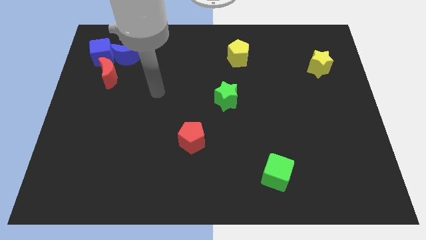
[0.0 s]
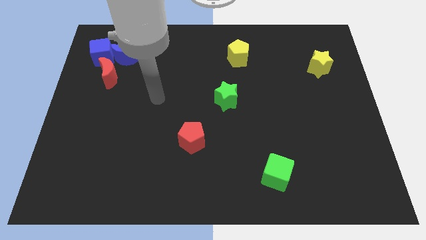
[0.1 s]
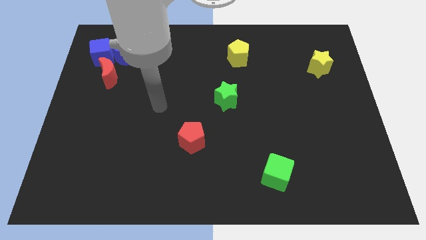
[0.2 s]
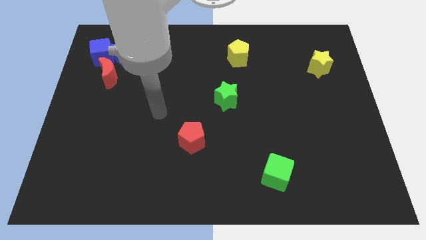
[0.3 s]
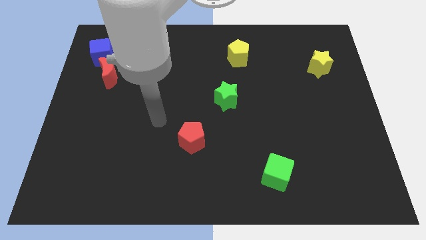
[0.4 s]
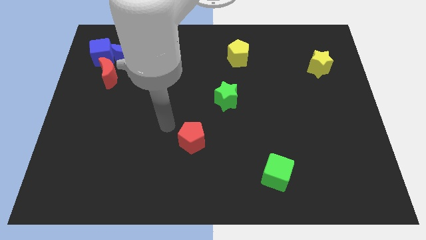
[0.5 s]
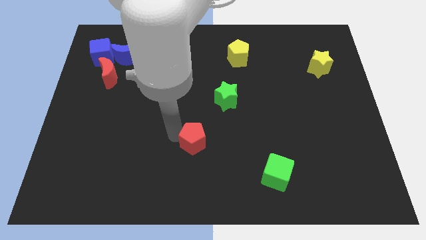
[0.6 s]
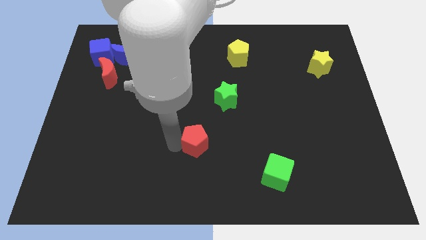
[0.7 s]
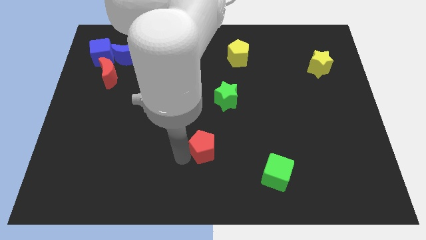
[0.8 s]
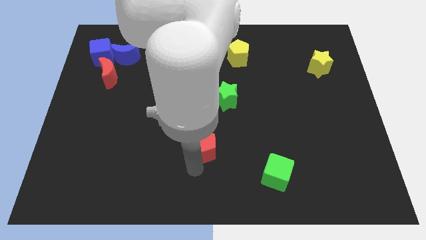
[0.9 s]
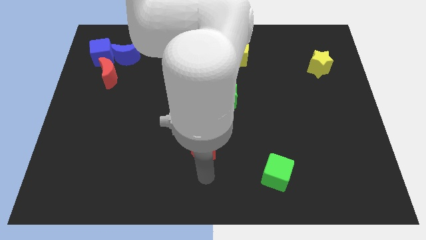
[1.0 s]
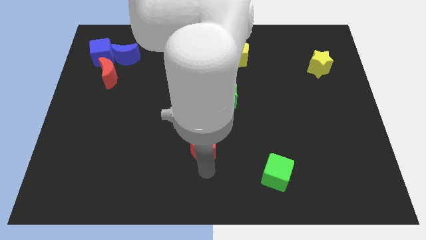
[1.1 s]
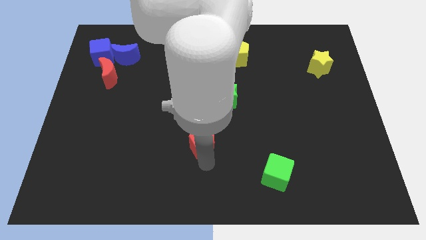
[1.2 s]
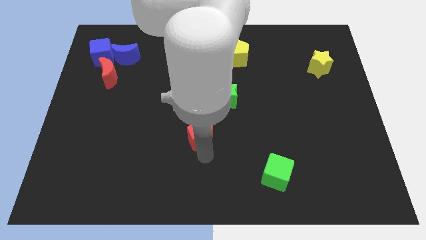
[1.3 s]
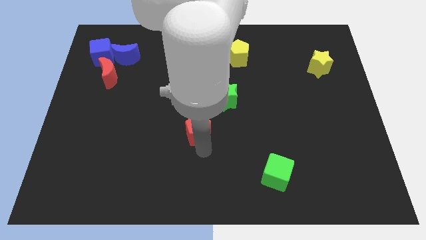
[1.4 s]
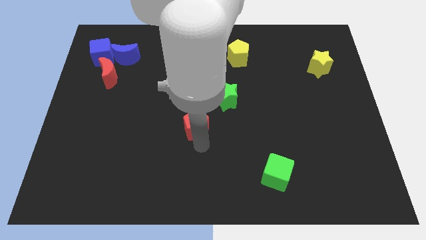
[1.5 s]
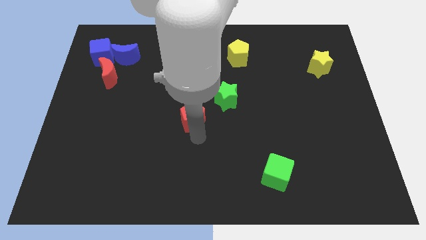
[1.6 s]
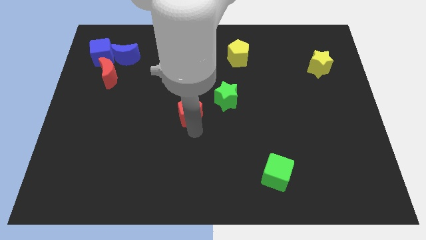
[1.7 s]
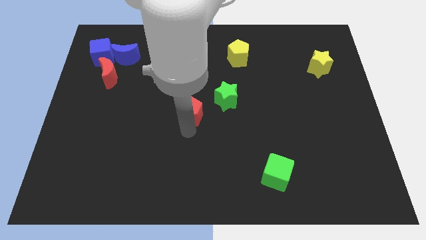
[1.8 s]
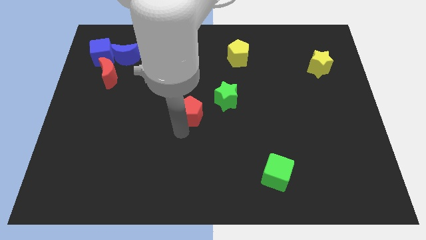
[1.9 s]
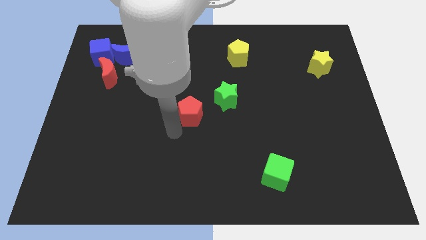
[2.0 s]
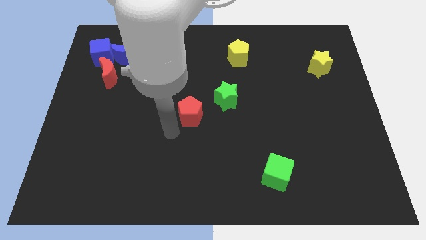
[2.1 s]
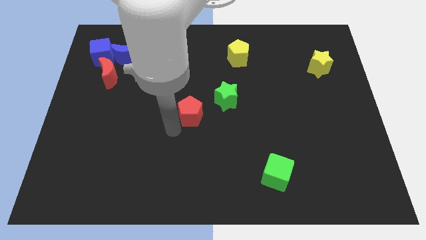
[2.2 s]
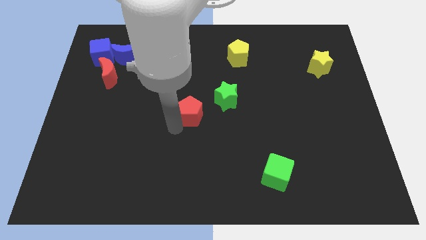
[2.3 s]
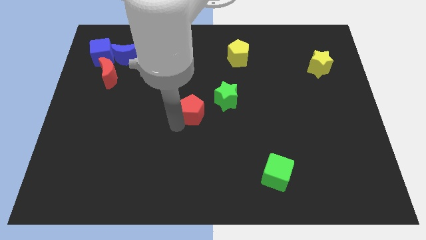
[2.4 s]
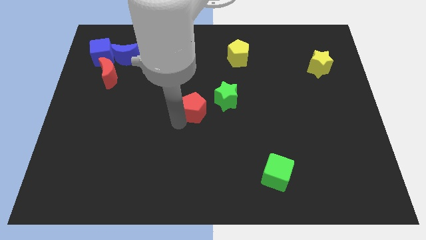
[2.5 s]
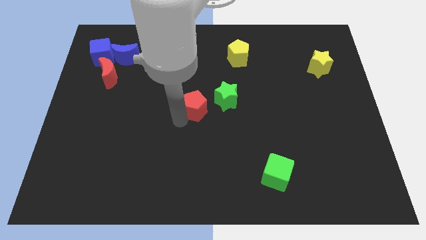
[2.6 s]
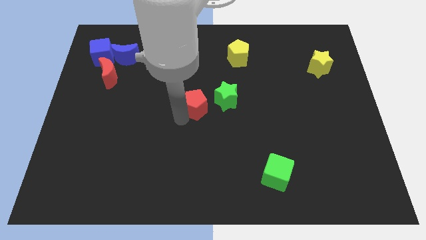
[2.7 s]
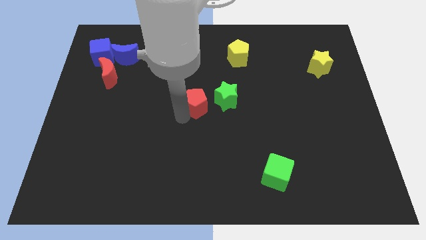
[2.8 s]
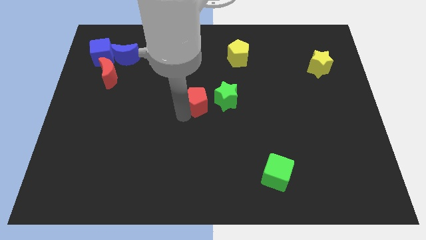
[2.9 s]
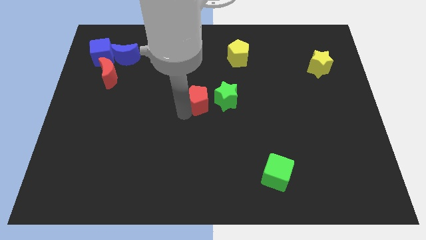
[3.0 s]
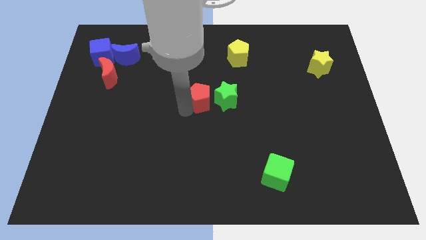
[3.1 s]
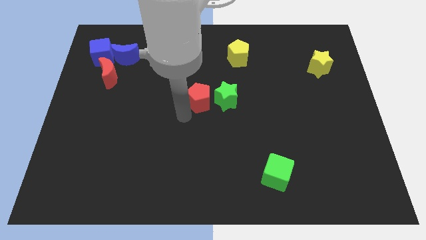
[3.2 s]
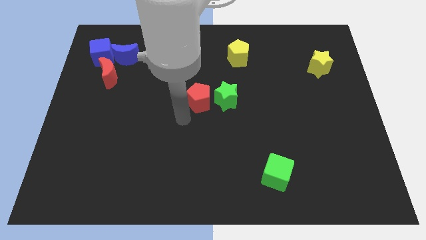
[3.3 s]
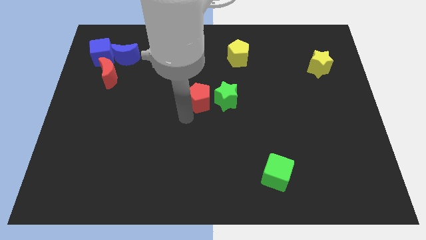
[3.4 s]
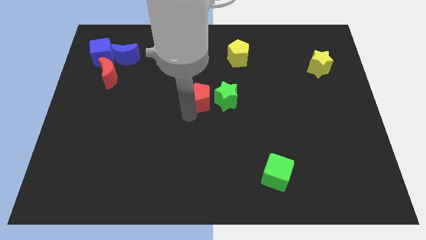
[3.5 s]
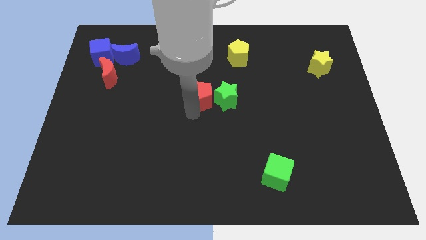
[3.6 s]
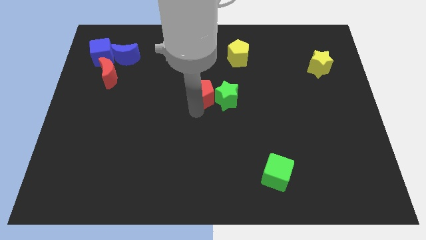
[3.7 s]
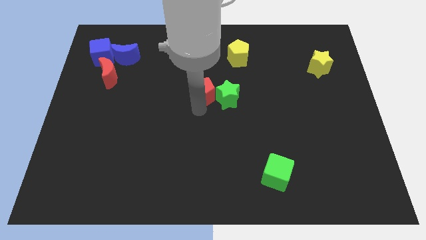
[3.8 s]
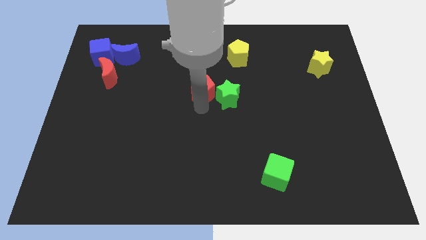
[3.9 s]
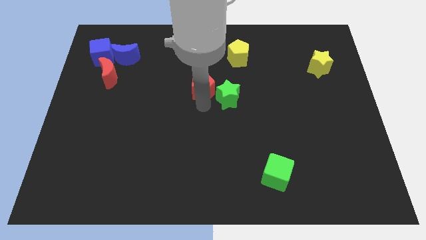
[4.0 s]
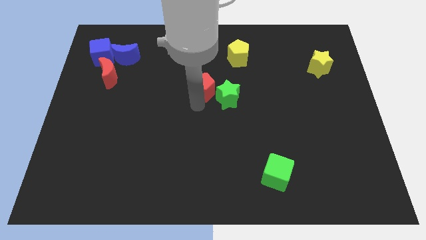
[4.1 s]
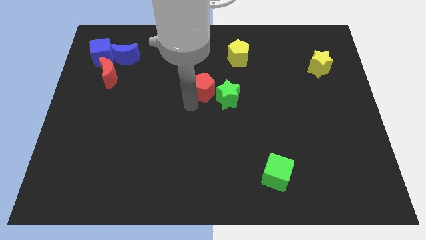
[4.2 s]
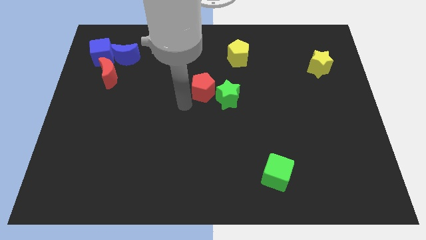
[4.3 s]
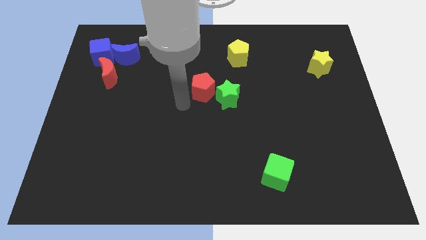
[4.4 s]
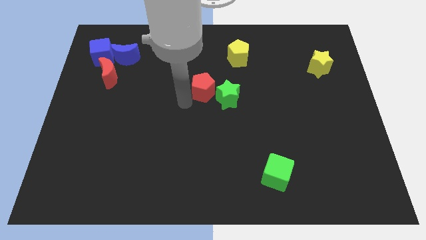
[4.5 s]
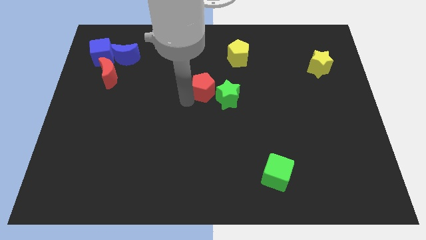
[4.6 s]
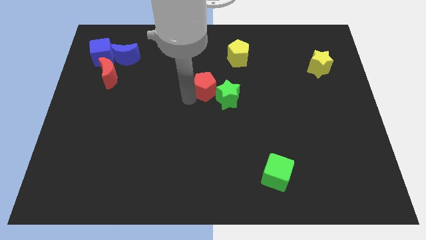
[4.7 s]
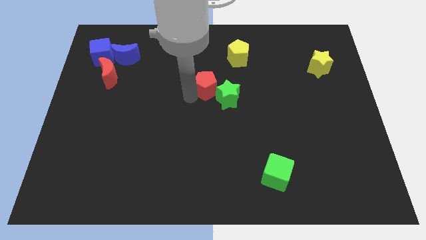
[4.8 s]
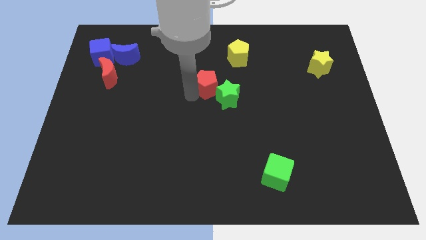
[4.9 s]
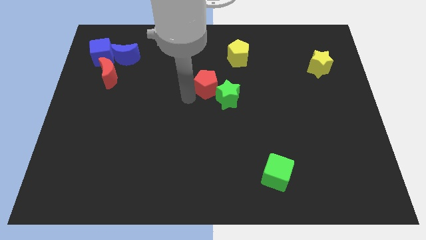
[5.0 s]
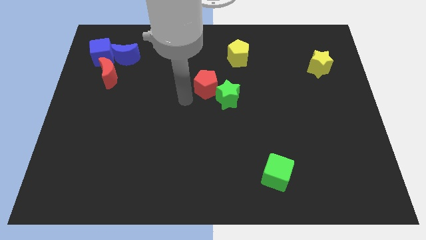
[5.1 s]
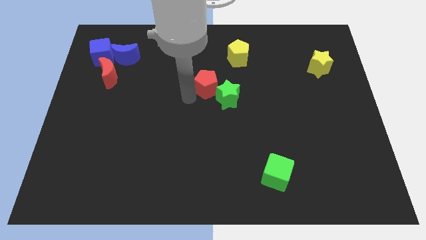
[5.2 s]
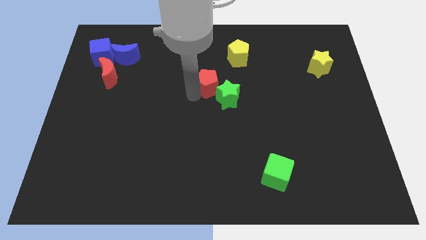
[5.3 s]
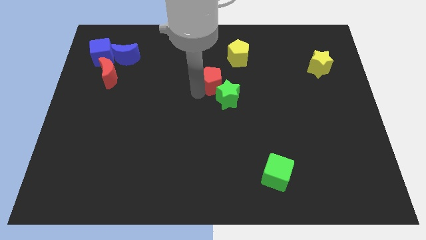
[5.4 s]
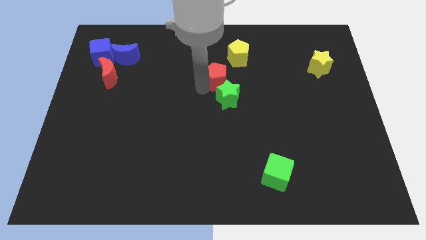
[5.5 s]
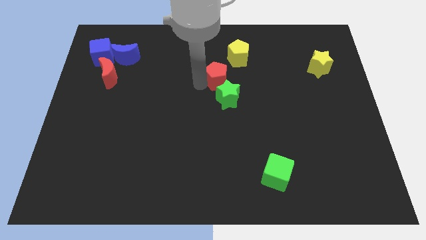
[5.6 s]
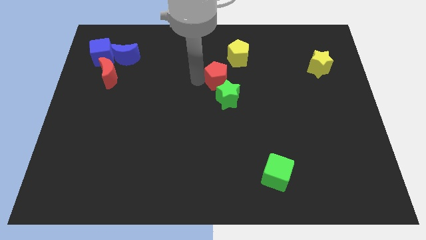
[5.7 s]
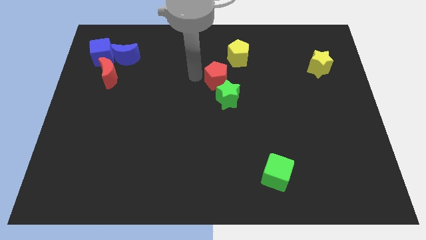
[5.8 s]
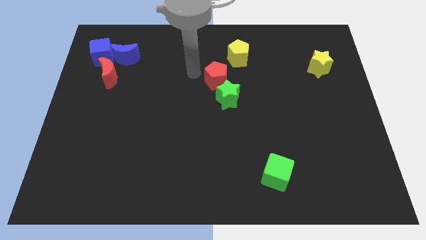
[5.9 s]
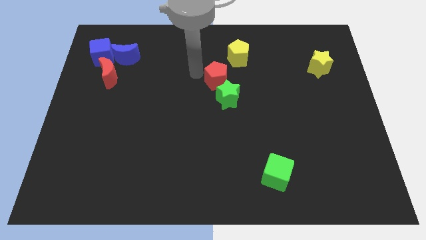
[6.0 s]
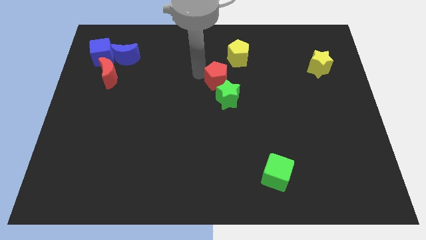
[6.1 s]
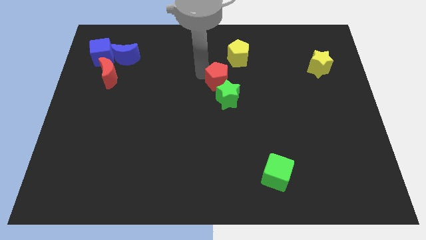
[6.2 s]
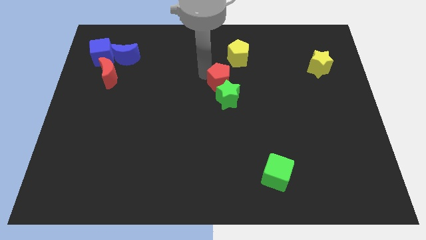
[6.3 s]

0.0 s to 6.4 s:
push the red pentagon to the bottom side of the yellow pentagon

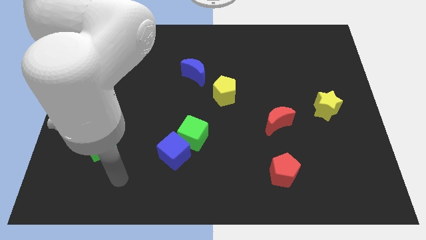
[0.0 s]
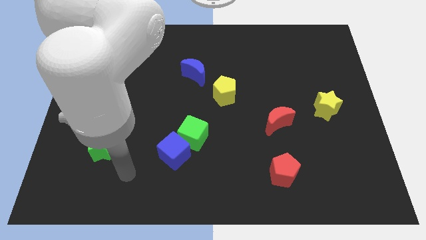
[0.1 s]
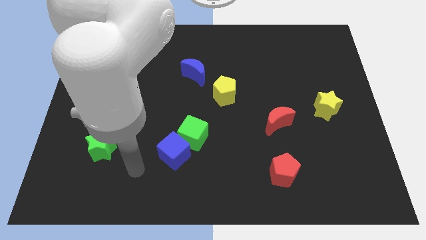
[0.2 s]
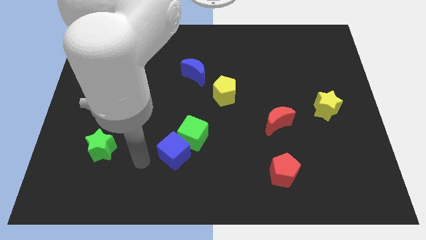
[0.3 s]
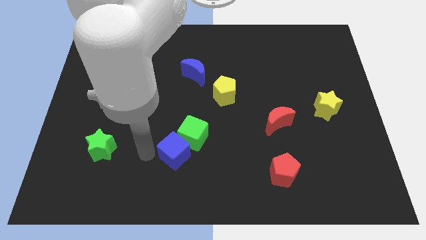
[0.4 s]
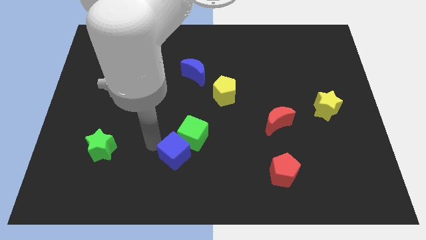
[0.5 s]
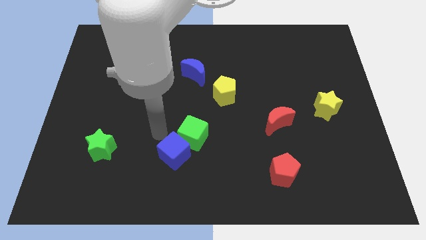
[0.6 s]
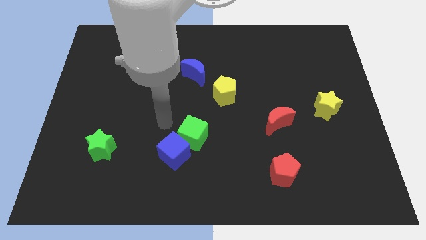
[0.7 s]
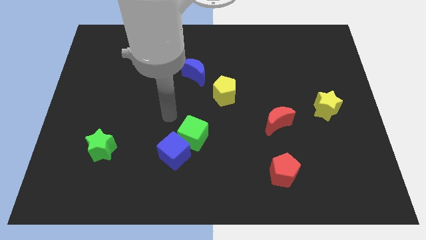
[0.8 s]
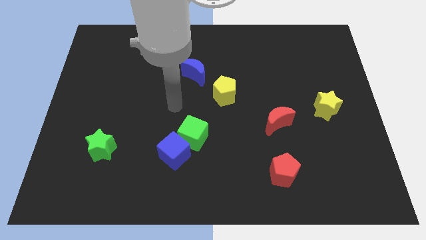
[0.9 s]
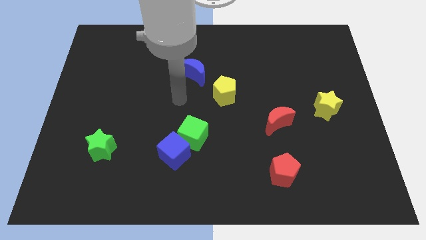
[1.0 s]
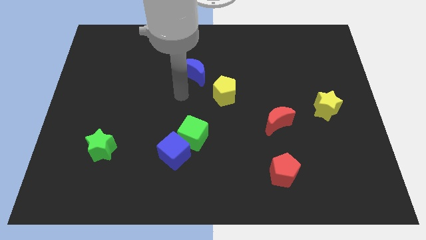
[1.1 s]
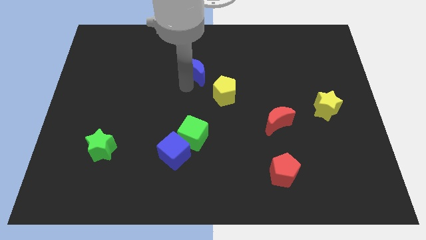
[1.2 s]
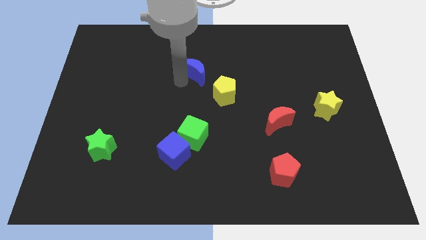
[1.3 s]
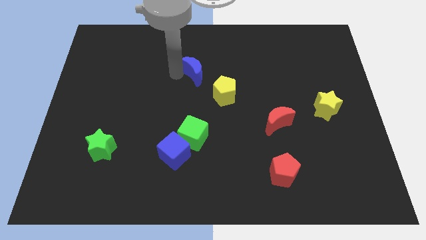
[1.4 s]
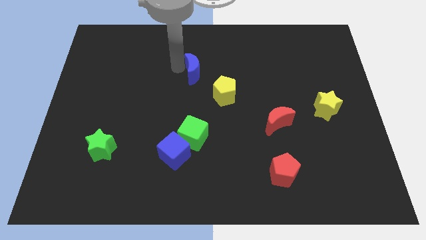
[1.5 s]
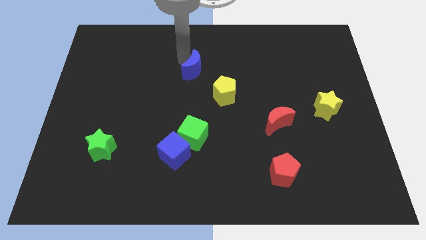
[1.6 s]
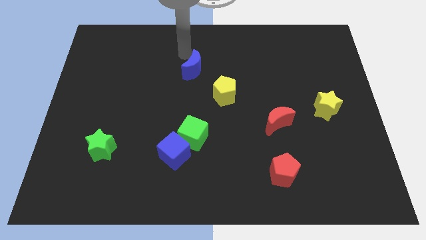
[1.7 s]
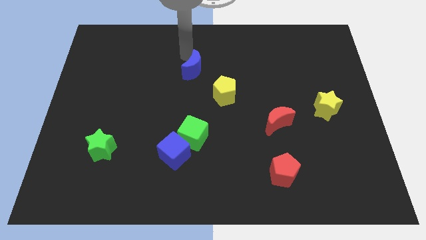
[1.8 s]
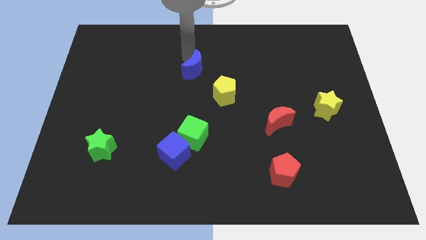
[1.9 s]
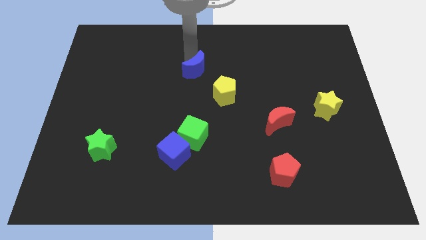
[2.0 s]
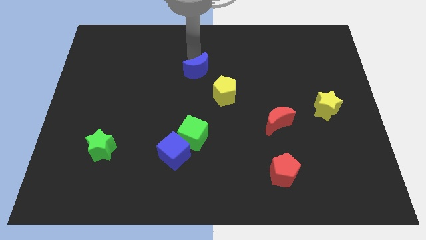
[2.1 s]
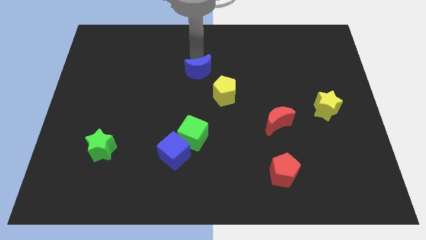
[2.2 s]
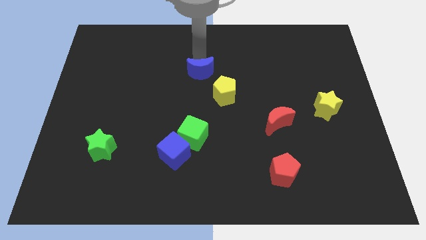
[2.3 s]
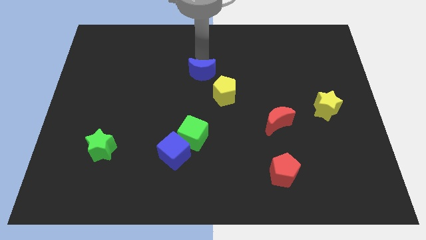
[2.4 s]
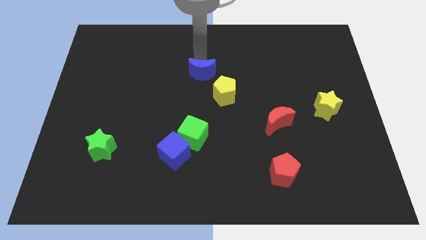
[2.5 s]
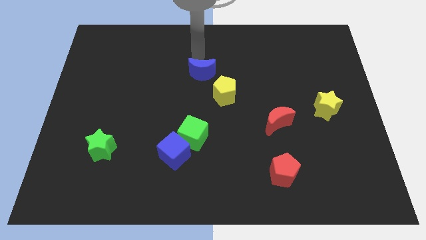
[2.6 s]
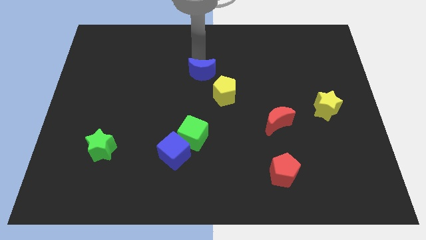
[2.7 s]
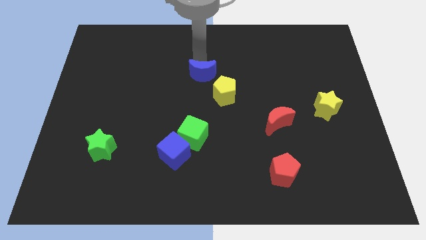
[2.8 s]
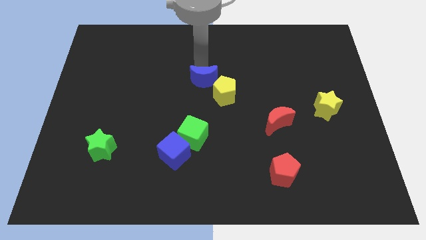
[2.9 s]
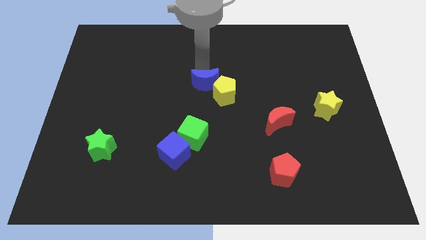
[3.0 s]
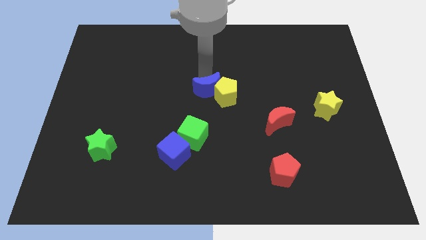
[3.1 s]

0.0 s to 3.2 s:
push the blue moon to the bottom left of the yellow pentagon
